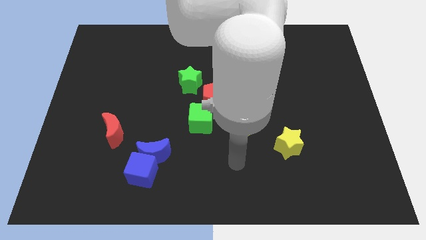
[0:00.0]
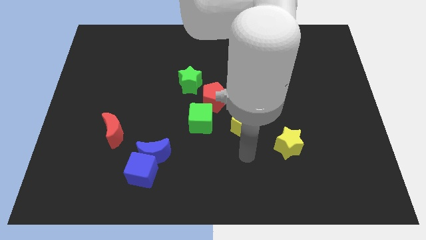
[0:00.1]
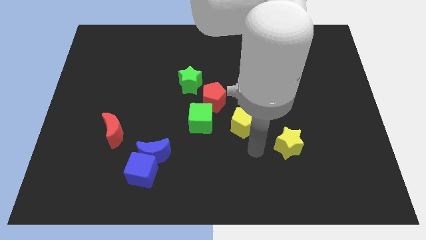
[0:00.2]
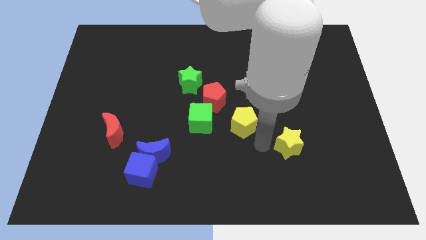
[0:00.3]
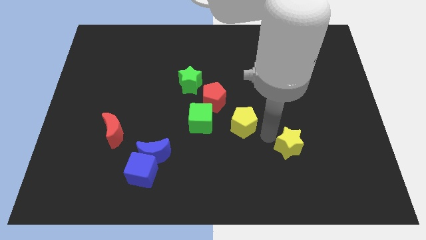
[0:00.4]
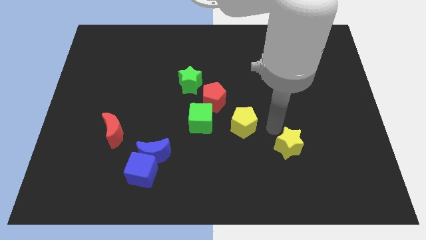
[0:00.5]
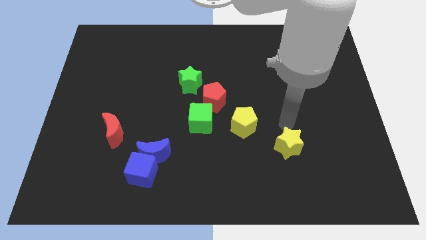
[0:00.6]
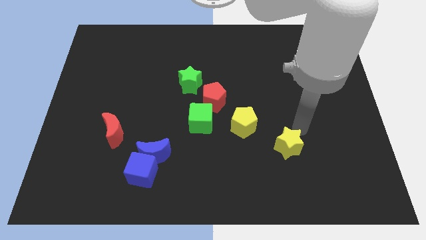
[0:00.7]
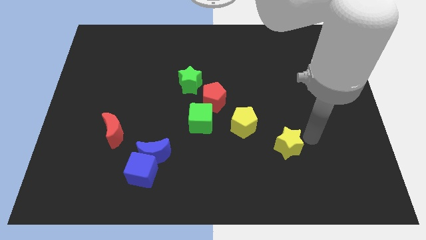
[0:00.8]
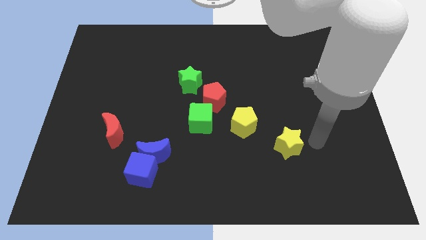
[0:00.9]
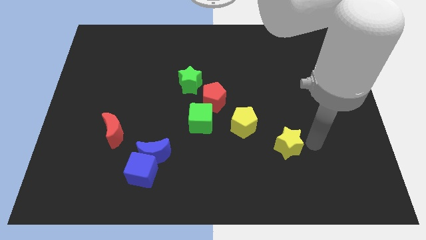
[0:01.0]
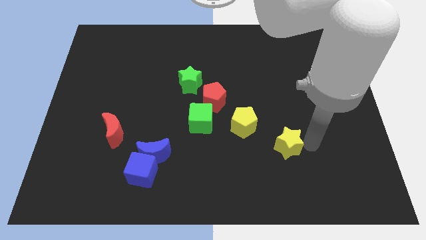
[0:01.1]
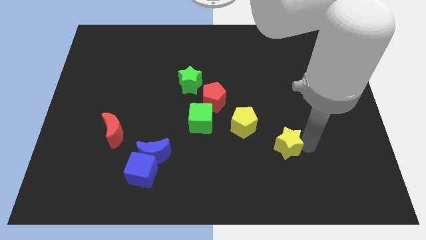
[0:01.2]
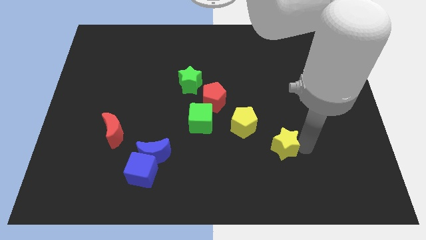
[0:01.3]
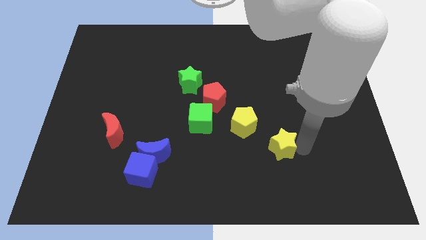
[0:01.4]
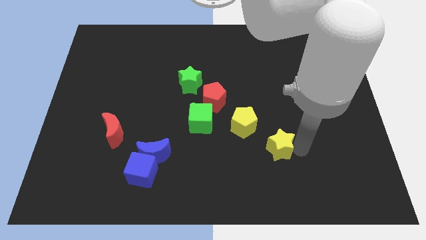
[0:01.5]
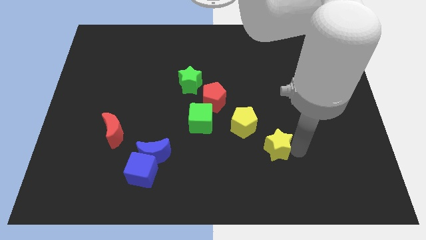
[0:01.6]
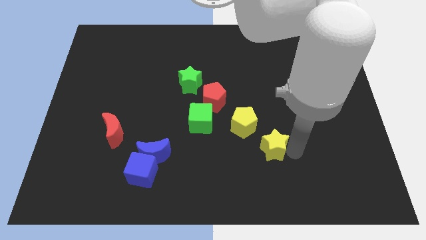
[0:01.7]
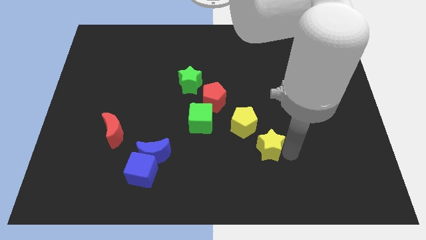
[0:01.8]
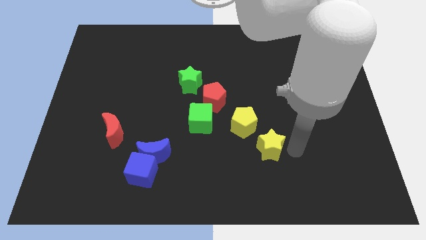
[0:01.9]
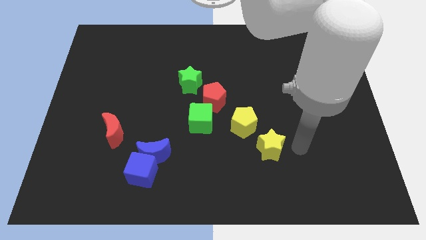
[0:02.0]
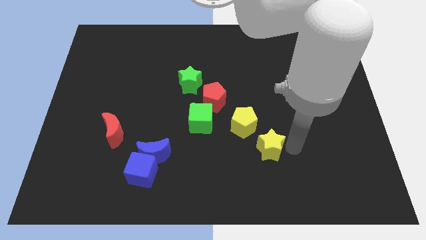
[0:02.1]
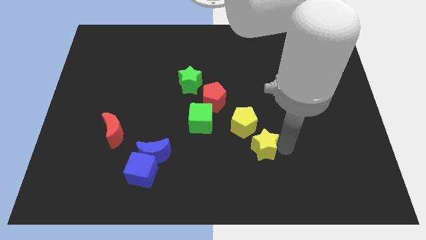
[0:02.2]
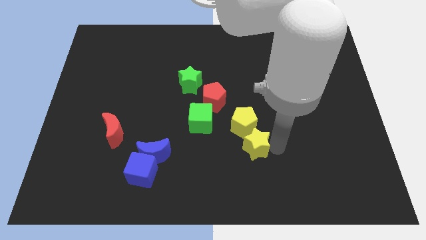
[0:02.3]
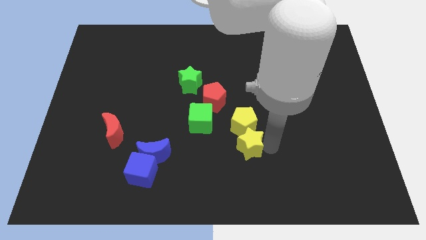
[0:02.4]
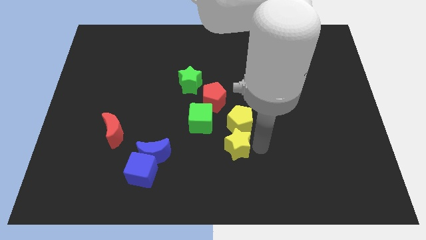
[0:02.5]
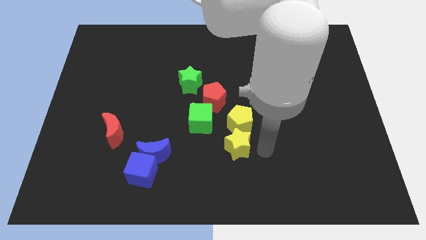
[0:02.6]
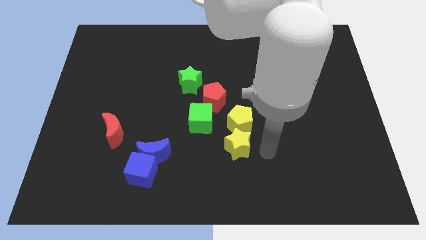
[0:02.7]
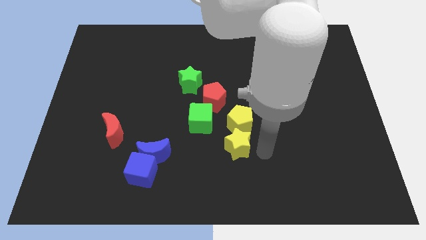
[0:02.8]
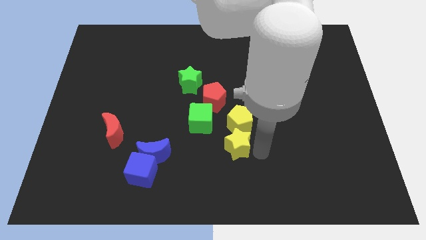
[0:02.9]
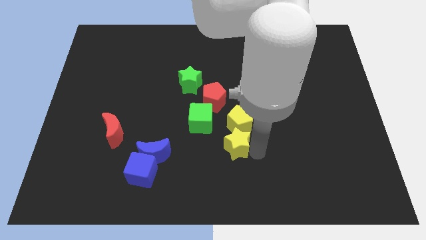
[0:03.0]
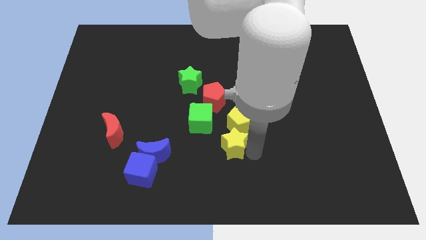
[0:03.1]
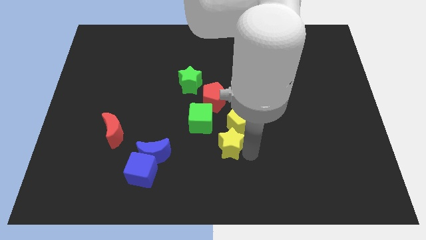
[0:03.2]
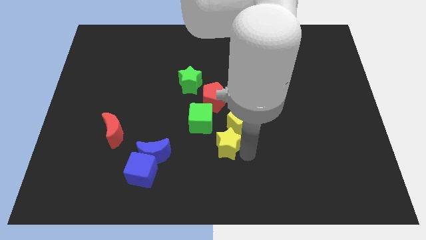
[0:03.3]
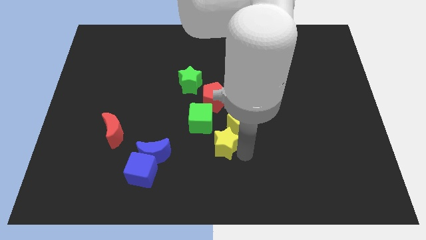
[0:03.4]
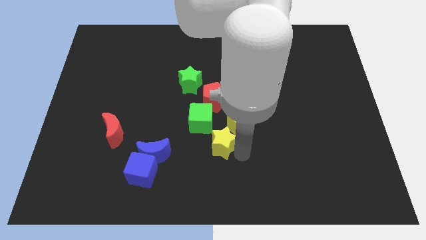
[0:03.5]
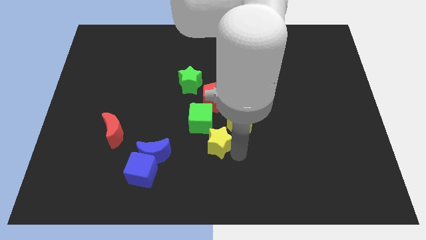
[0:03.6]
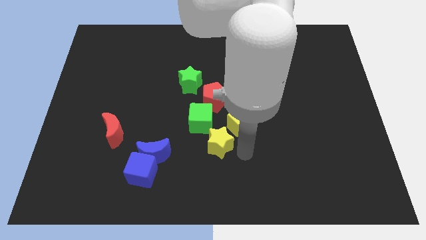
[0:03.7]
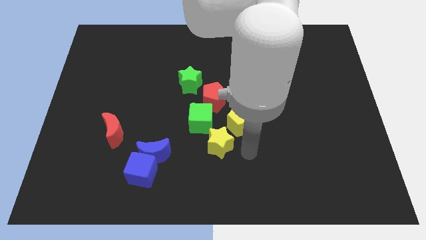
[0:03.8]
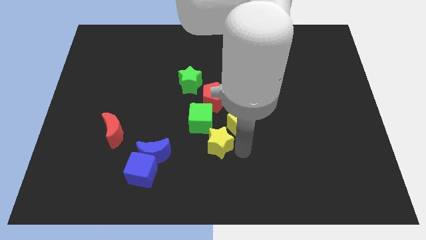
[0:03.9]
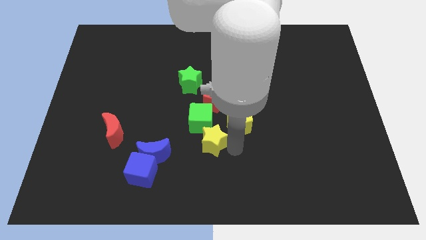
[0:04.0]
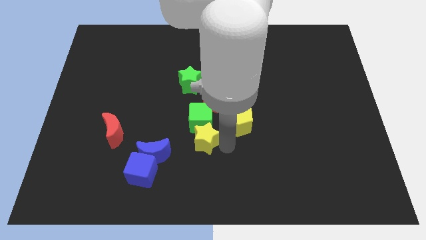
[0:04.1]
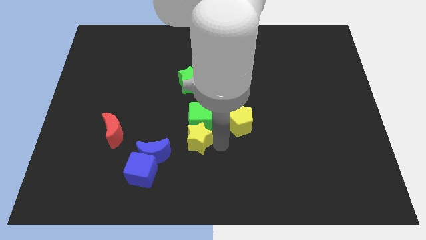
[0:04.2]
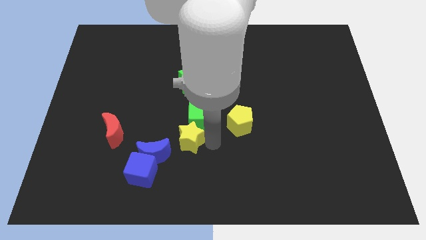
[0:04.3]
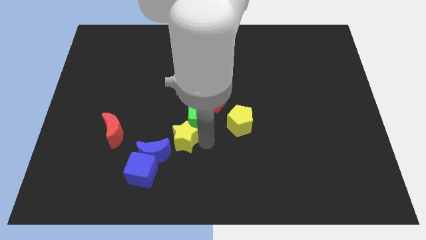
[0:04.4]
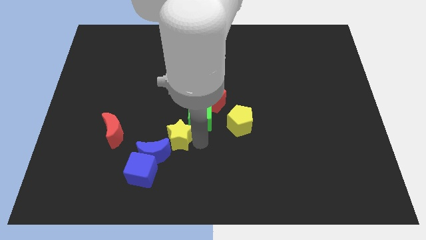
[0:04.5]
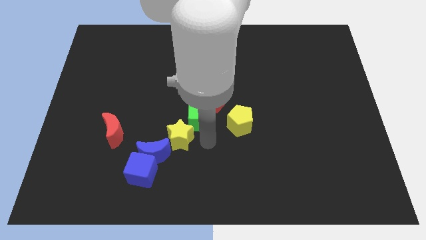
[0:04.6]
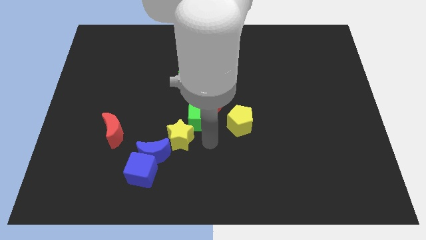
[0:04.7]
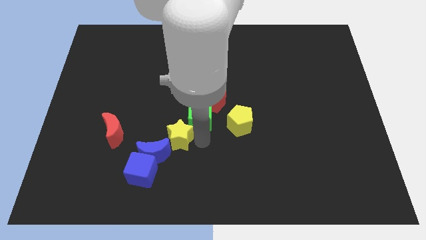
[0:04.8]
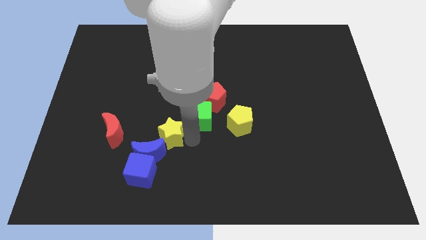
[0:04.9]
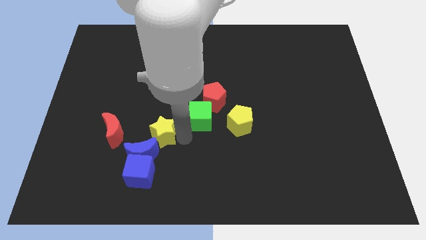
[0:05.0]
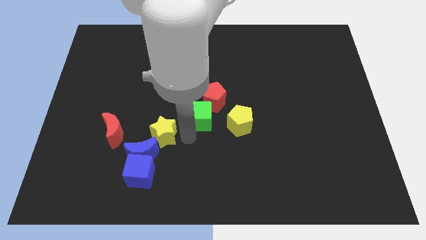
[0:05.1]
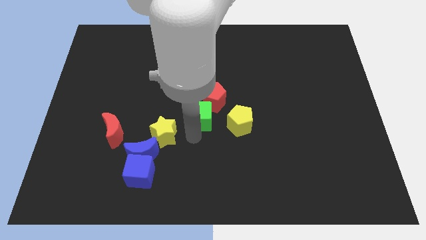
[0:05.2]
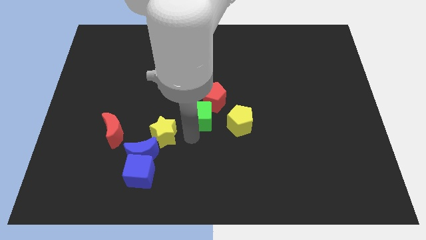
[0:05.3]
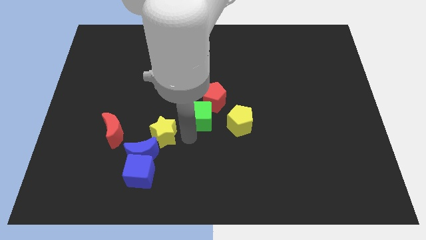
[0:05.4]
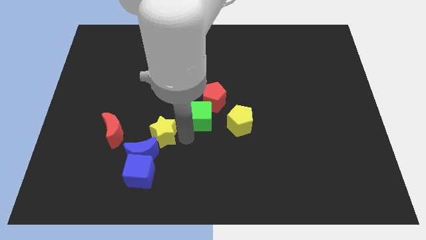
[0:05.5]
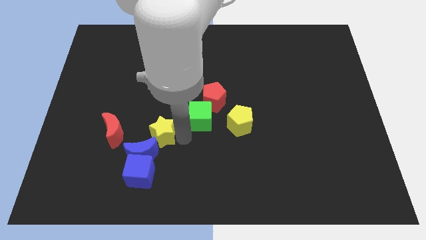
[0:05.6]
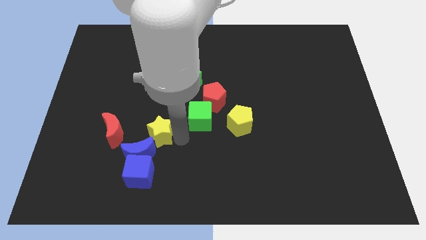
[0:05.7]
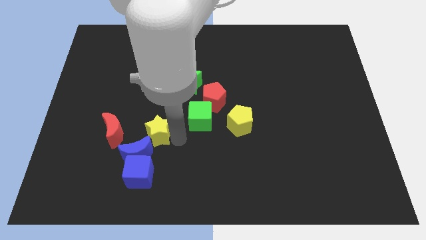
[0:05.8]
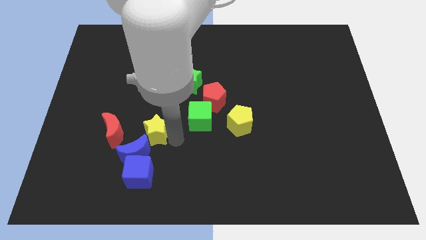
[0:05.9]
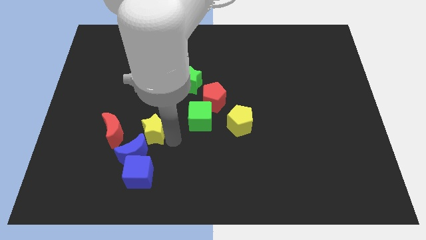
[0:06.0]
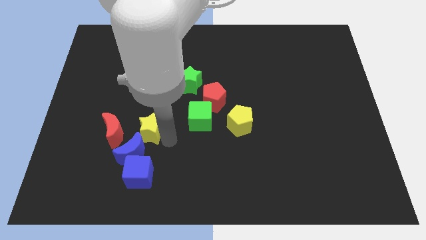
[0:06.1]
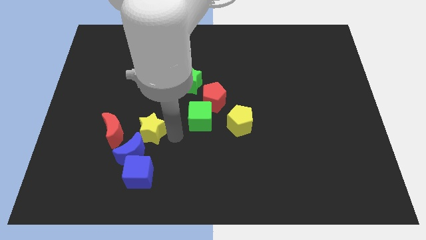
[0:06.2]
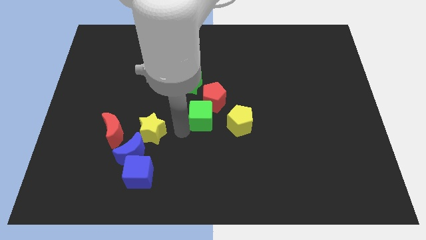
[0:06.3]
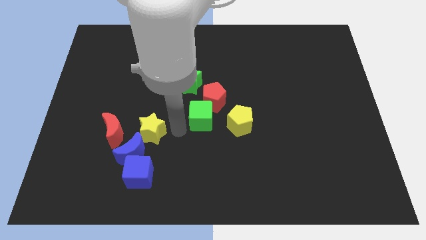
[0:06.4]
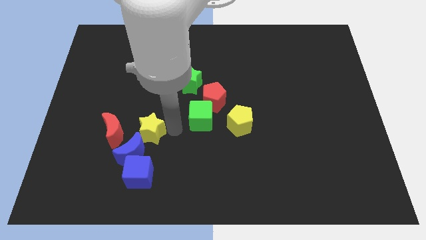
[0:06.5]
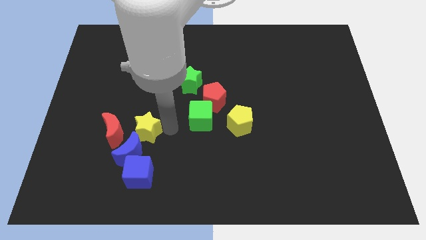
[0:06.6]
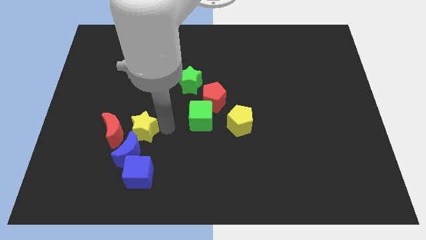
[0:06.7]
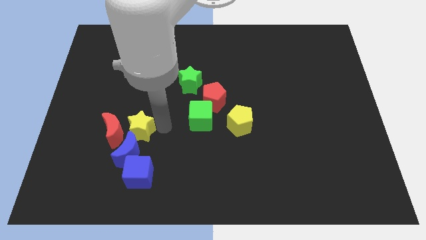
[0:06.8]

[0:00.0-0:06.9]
slide the yellow star to the red moon

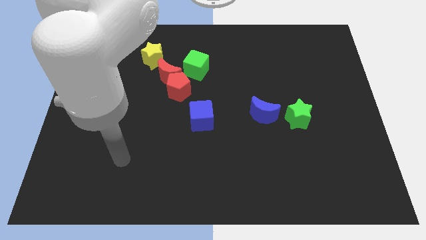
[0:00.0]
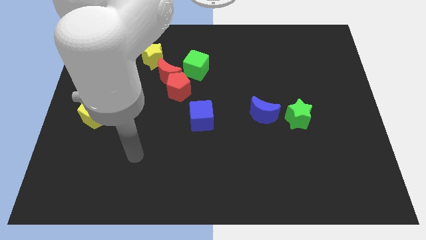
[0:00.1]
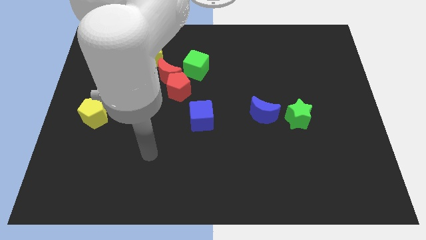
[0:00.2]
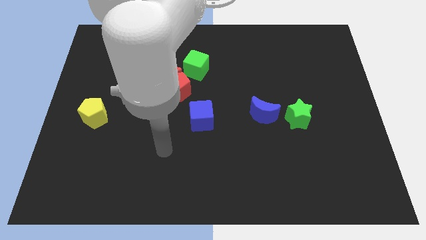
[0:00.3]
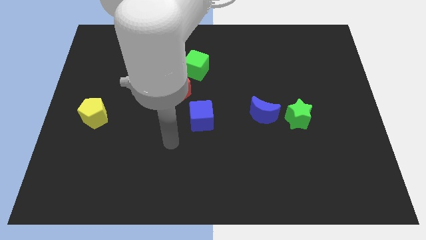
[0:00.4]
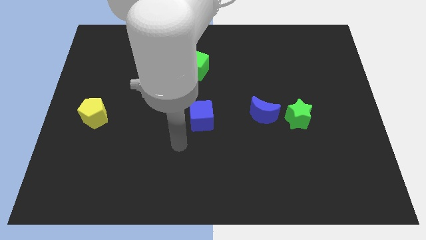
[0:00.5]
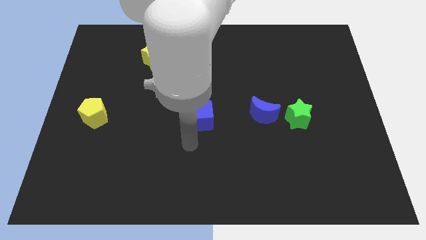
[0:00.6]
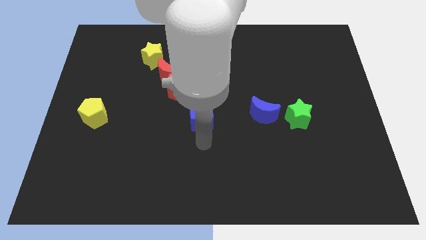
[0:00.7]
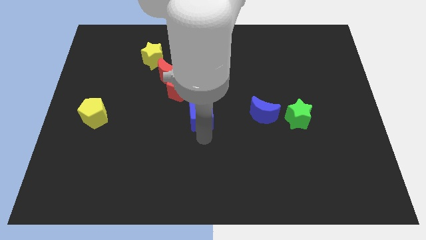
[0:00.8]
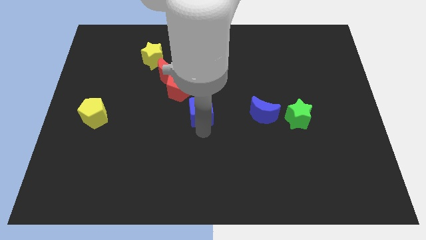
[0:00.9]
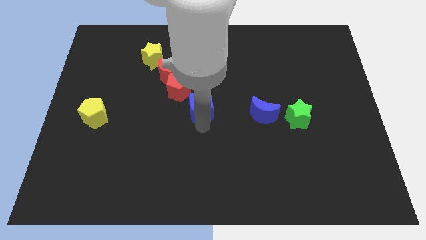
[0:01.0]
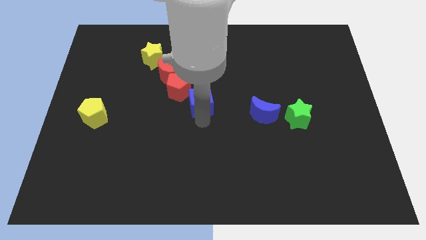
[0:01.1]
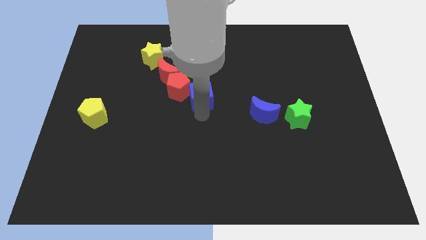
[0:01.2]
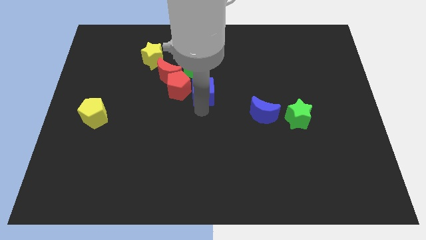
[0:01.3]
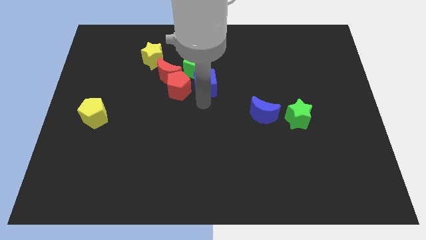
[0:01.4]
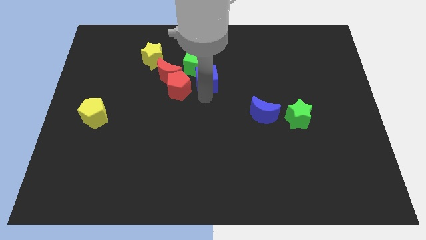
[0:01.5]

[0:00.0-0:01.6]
slide the blue cube close to the green cube
